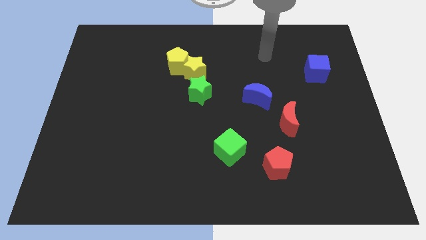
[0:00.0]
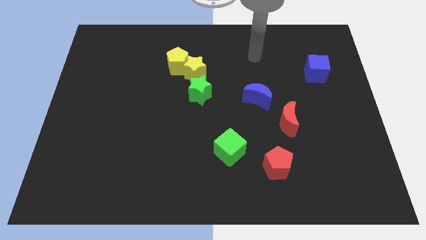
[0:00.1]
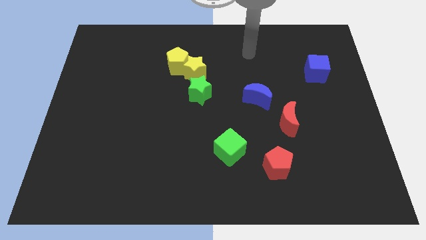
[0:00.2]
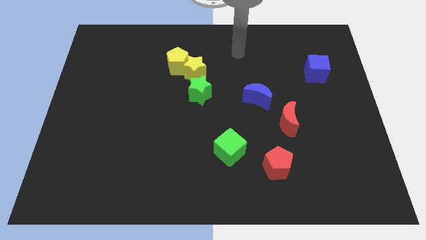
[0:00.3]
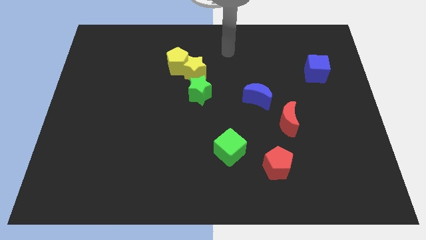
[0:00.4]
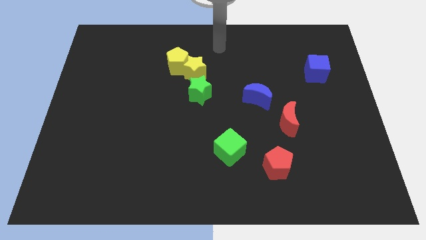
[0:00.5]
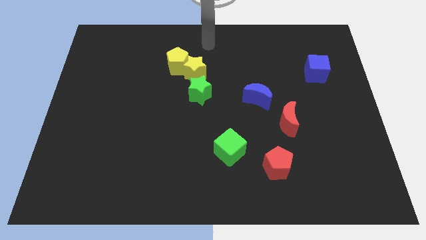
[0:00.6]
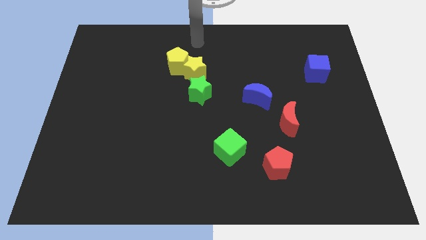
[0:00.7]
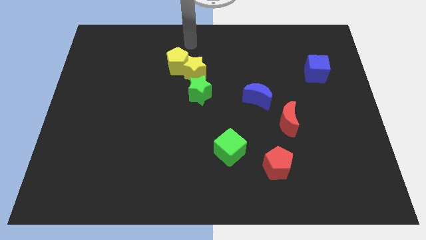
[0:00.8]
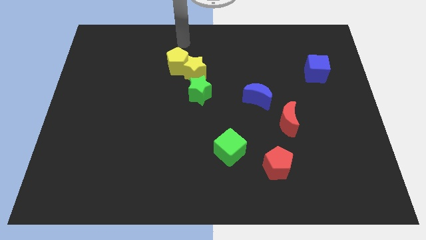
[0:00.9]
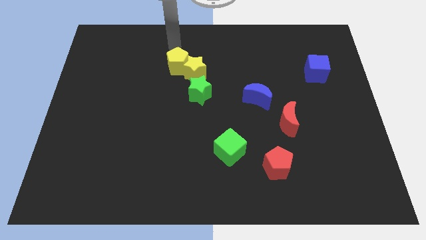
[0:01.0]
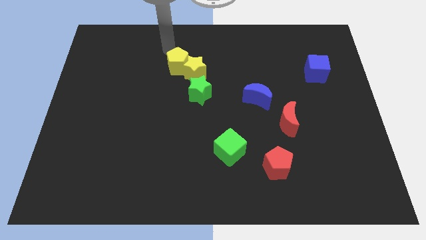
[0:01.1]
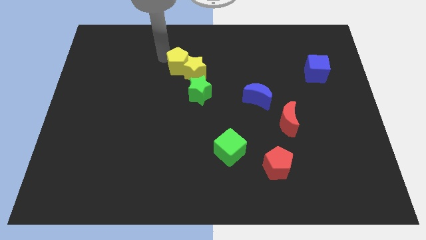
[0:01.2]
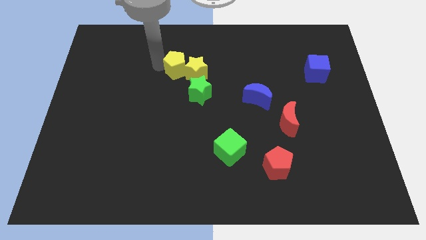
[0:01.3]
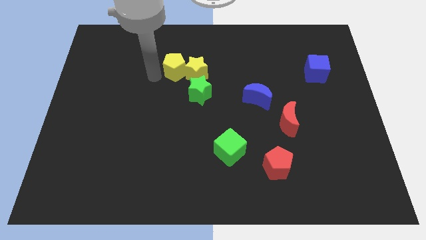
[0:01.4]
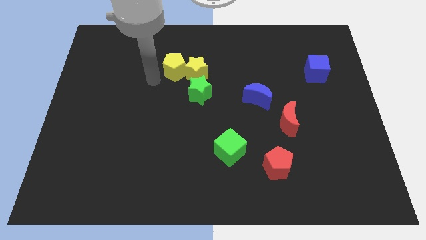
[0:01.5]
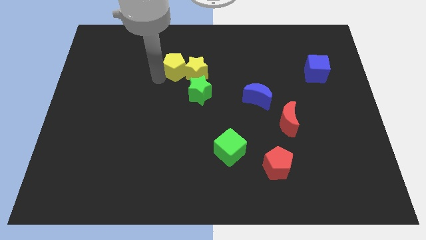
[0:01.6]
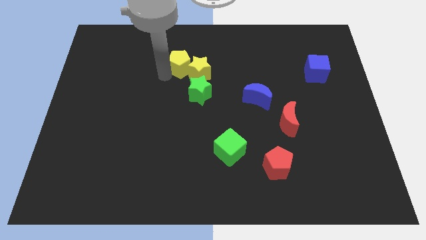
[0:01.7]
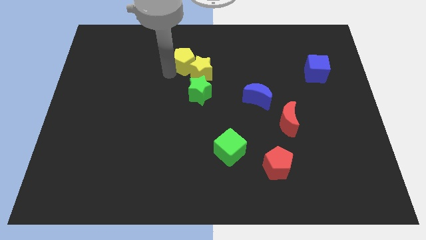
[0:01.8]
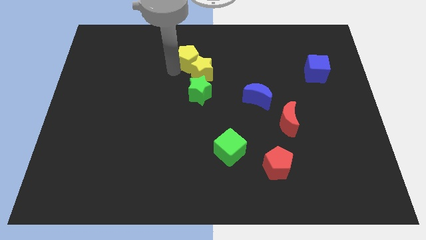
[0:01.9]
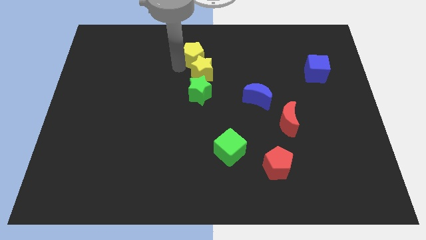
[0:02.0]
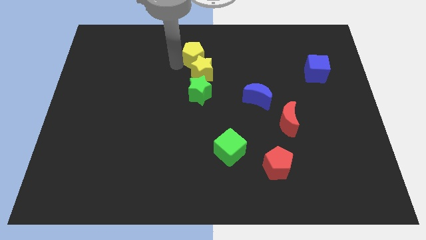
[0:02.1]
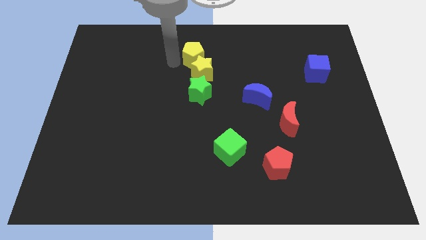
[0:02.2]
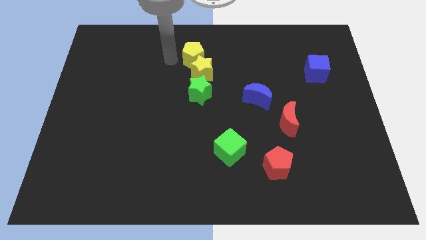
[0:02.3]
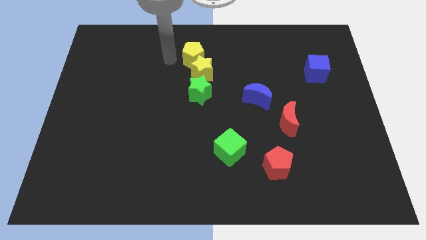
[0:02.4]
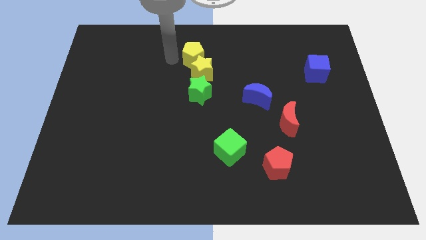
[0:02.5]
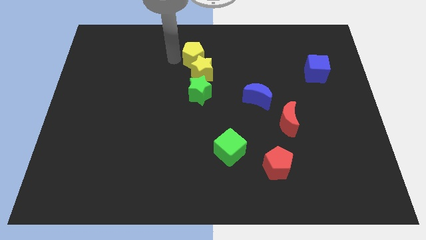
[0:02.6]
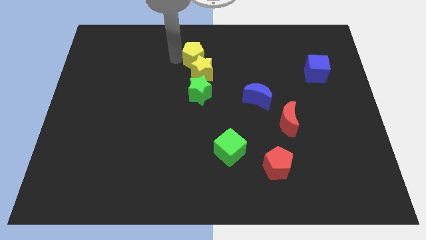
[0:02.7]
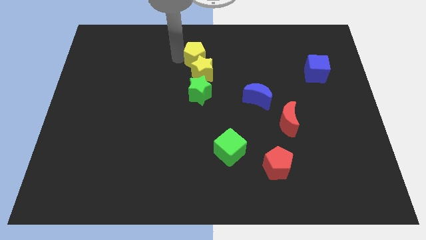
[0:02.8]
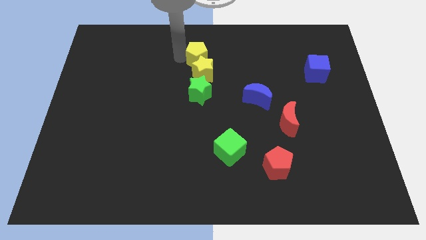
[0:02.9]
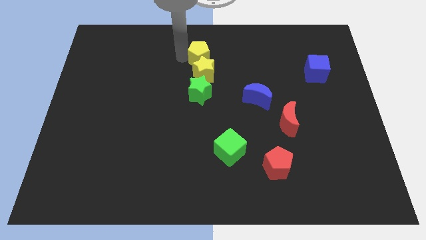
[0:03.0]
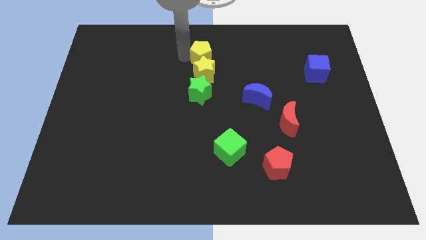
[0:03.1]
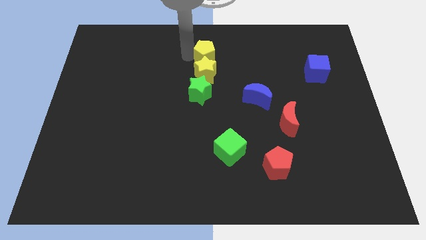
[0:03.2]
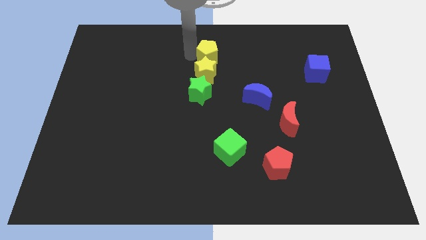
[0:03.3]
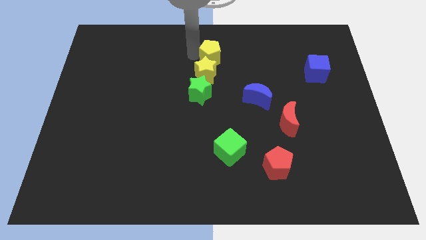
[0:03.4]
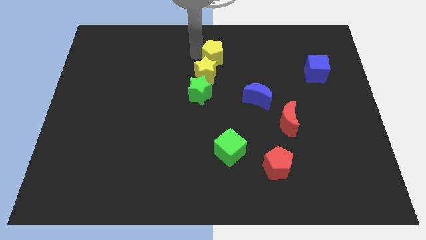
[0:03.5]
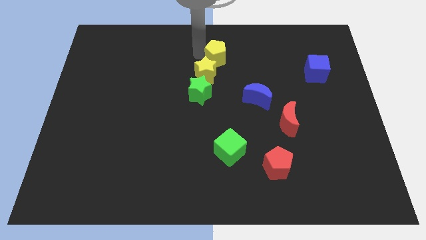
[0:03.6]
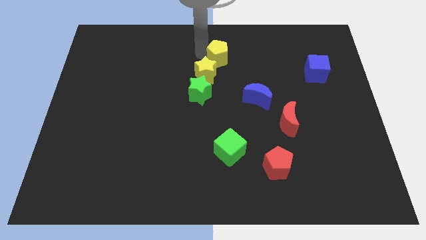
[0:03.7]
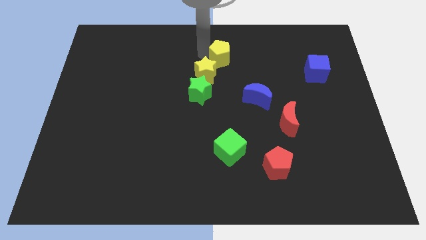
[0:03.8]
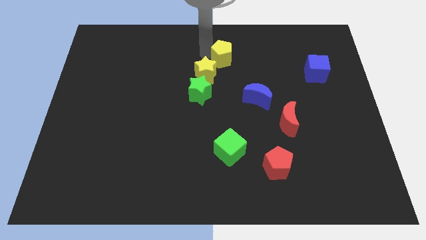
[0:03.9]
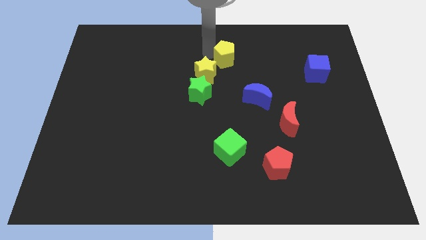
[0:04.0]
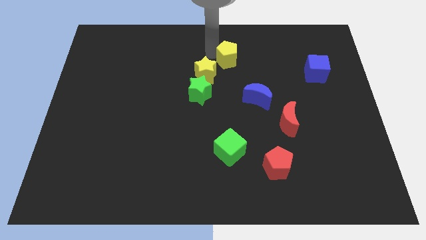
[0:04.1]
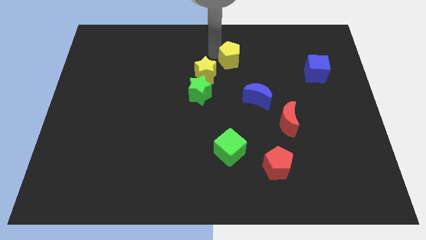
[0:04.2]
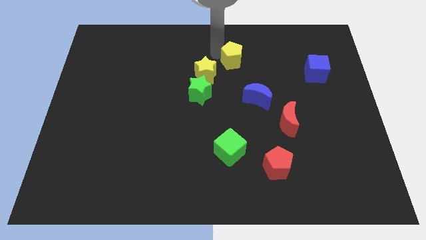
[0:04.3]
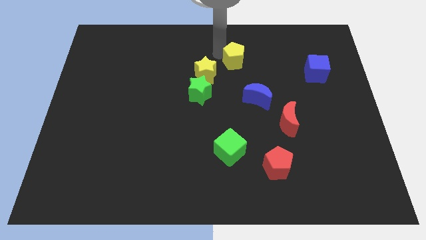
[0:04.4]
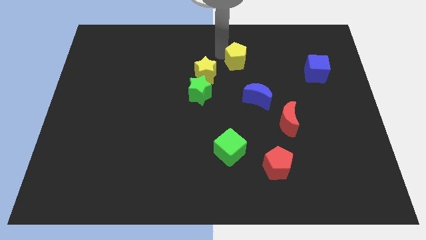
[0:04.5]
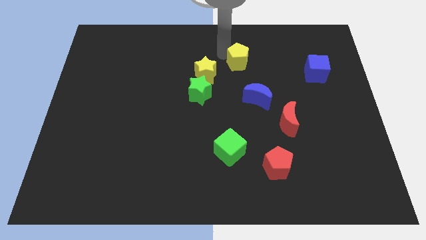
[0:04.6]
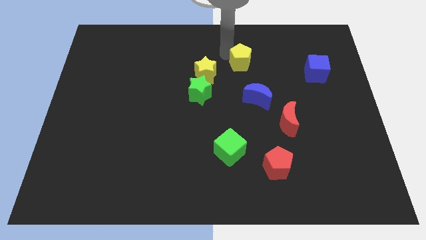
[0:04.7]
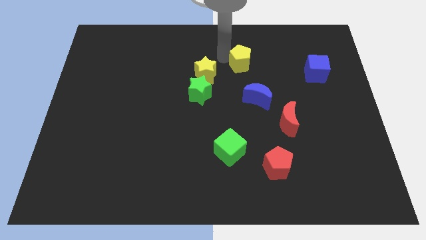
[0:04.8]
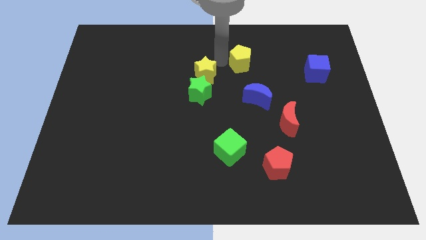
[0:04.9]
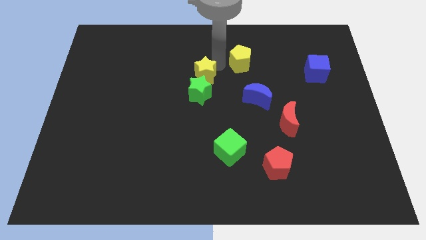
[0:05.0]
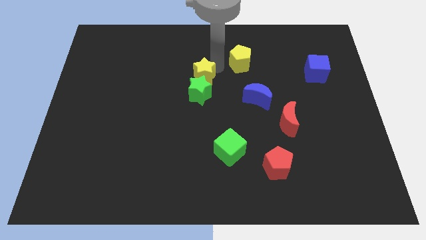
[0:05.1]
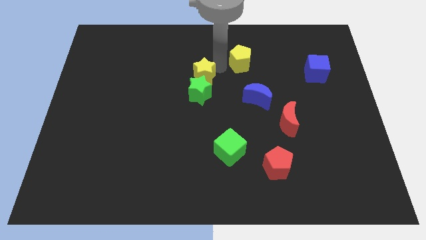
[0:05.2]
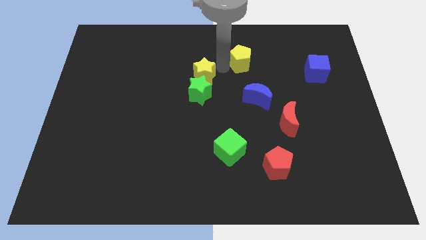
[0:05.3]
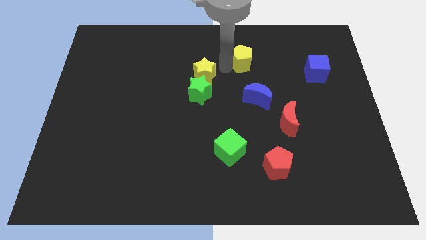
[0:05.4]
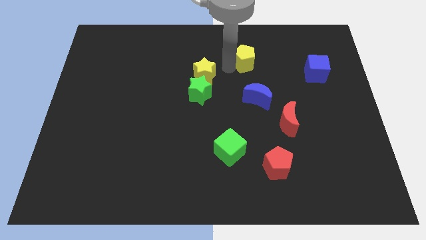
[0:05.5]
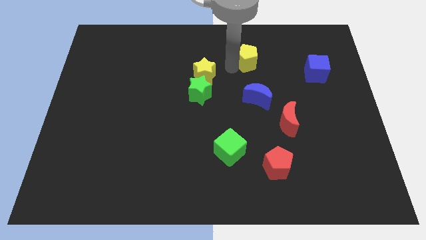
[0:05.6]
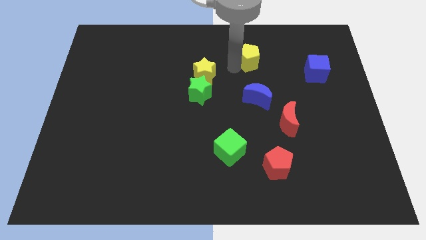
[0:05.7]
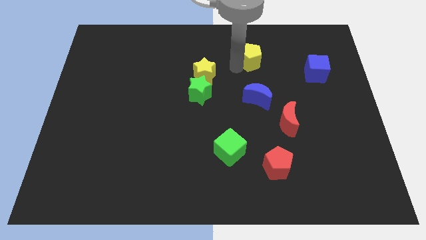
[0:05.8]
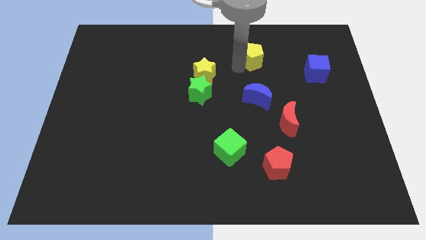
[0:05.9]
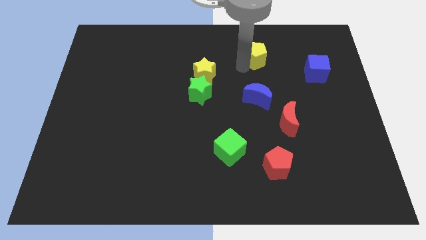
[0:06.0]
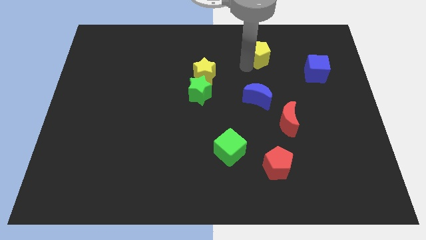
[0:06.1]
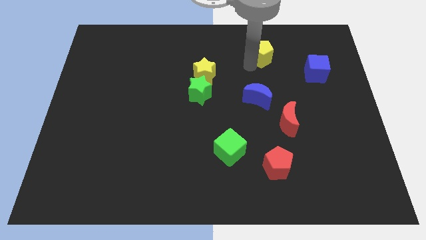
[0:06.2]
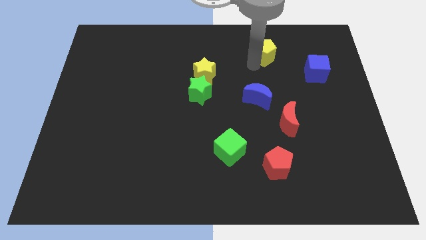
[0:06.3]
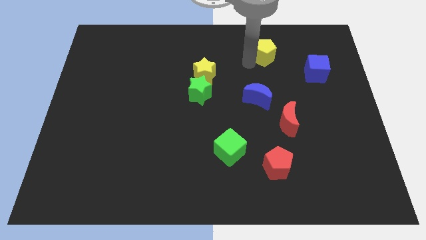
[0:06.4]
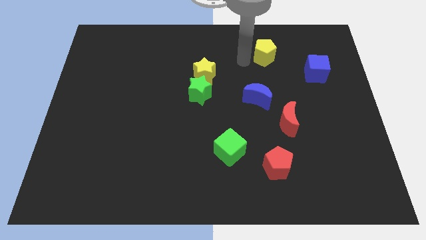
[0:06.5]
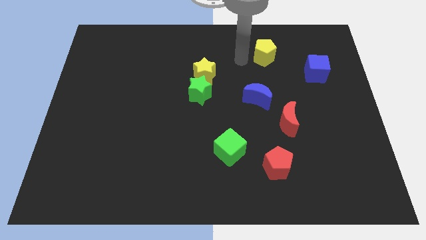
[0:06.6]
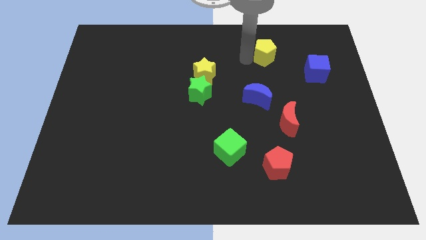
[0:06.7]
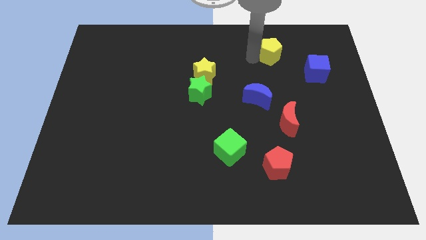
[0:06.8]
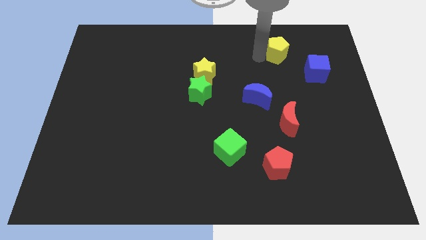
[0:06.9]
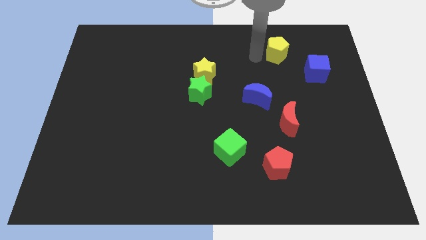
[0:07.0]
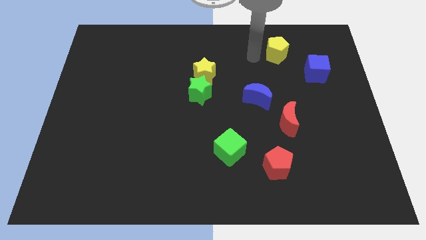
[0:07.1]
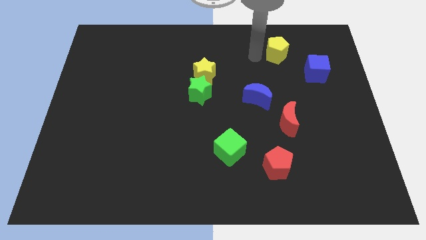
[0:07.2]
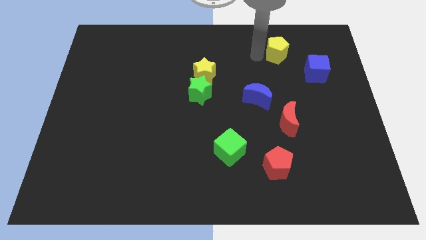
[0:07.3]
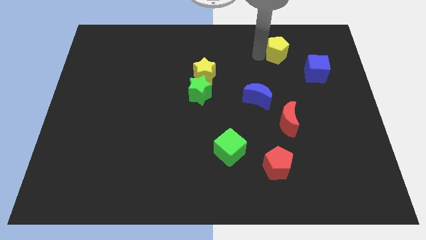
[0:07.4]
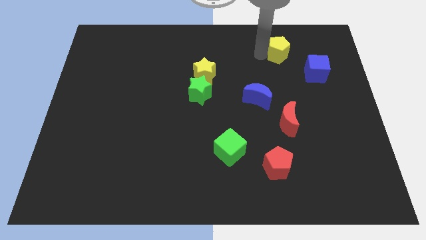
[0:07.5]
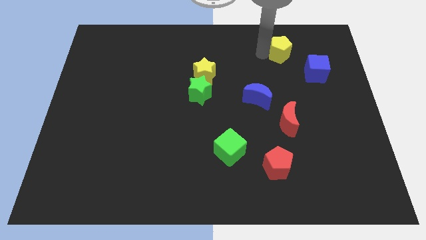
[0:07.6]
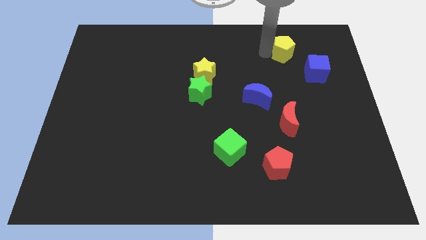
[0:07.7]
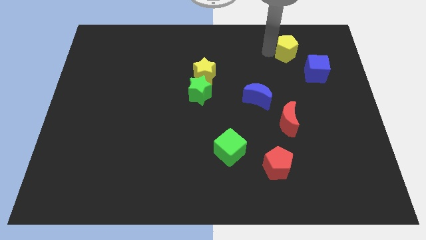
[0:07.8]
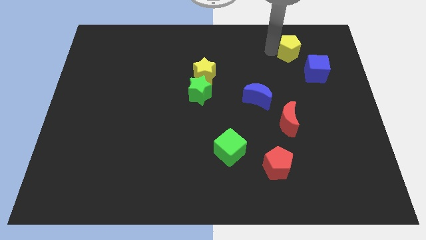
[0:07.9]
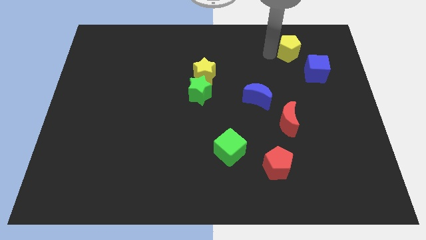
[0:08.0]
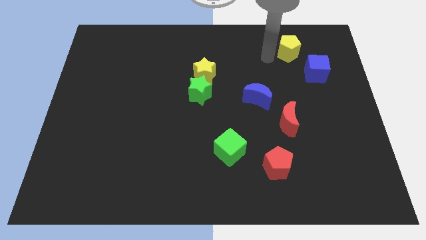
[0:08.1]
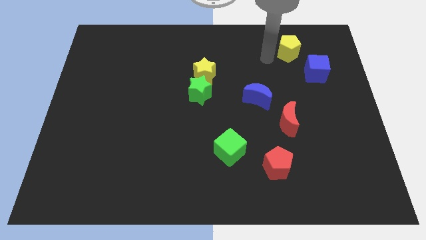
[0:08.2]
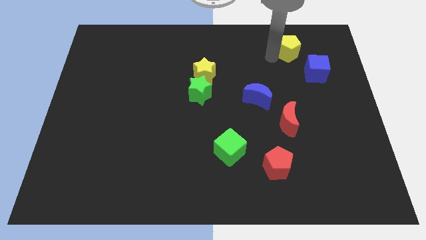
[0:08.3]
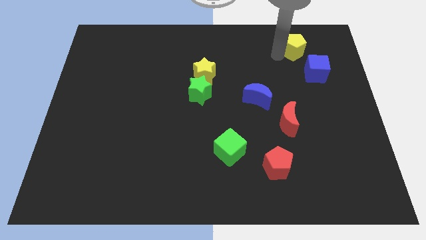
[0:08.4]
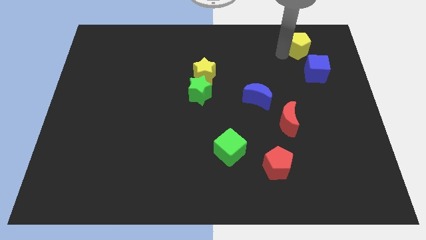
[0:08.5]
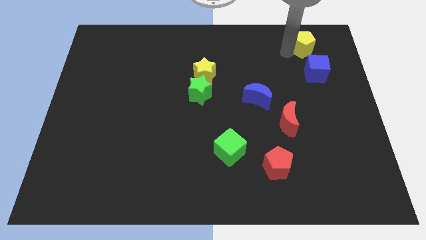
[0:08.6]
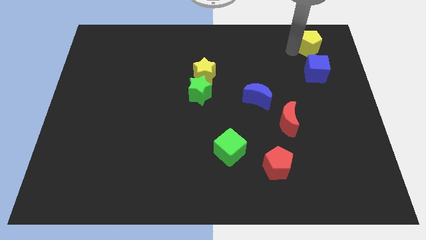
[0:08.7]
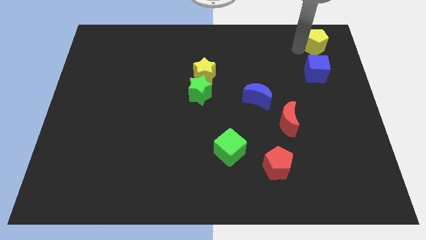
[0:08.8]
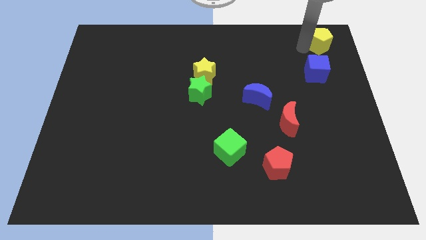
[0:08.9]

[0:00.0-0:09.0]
slide the yellow pentagon to the top right
